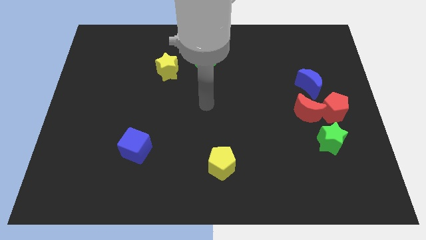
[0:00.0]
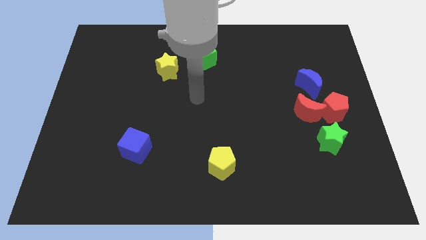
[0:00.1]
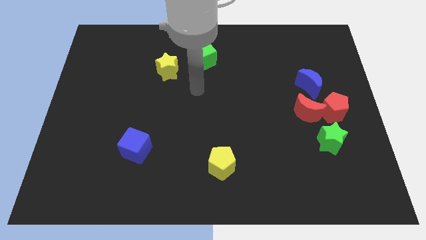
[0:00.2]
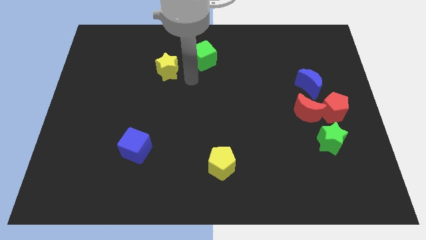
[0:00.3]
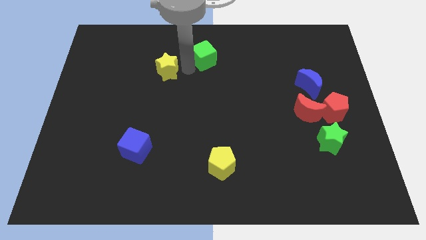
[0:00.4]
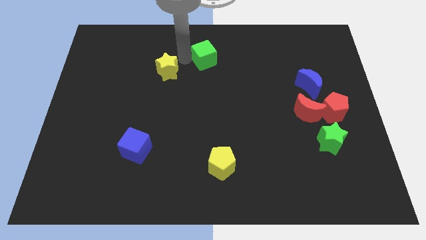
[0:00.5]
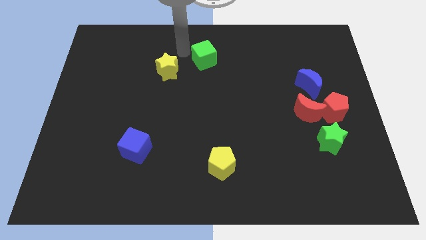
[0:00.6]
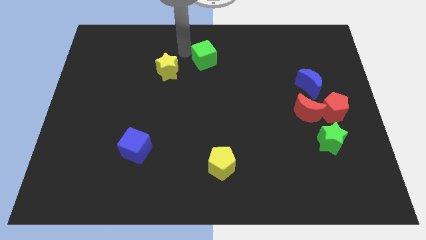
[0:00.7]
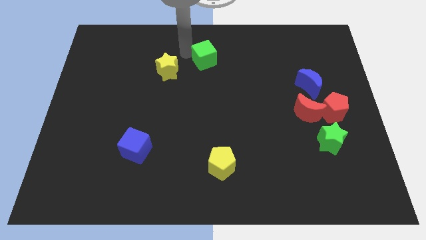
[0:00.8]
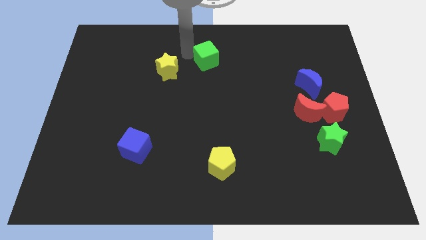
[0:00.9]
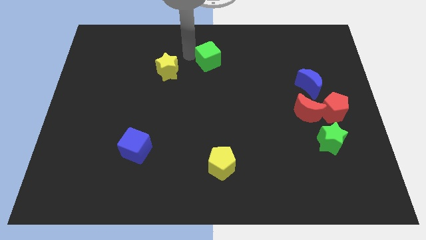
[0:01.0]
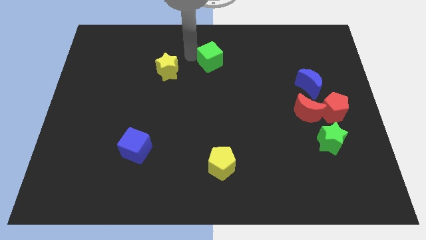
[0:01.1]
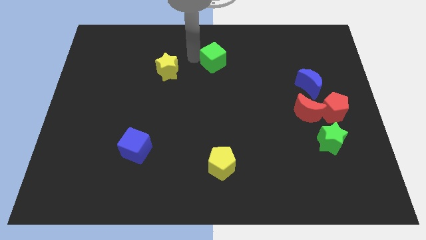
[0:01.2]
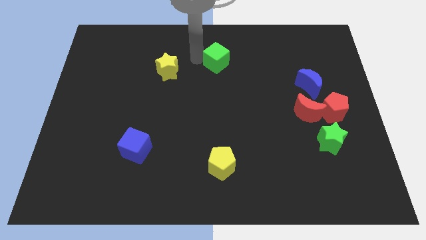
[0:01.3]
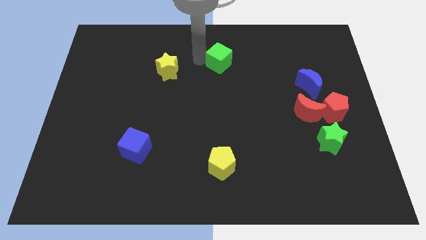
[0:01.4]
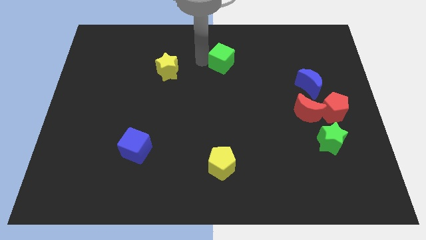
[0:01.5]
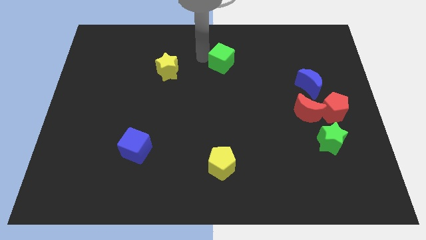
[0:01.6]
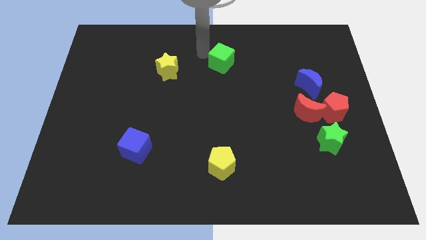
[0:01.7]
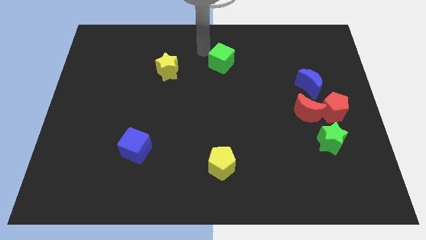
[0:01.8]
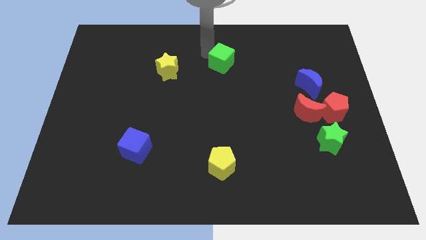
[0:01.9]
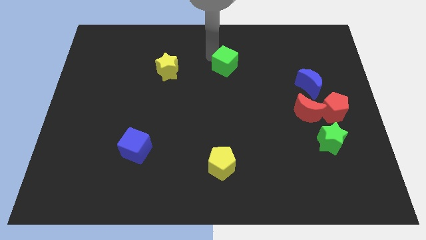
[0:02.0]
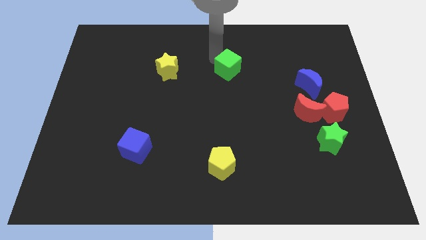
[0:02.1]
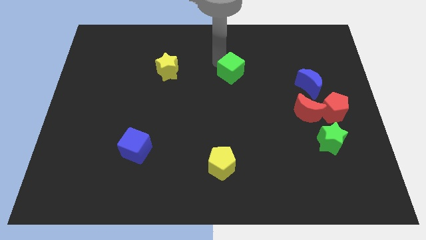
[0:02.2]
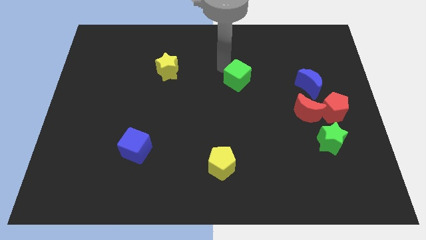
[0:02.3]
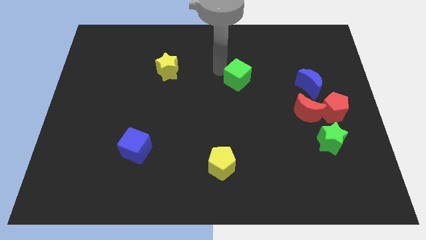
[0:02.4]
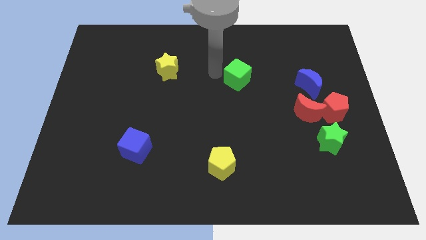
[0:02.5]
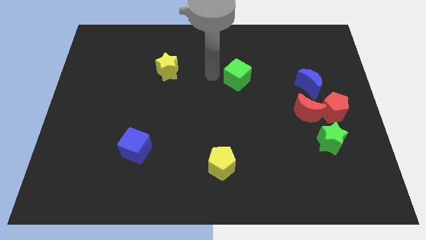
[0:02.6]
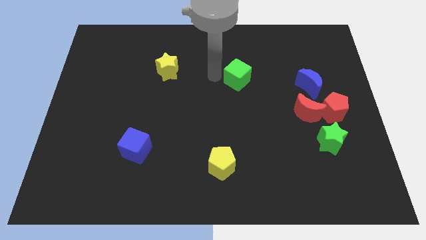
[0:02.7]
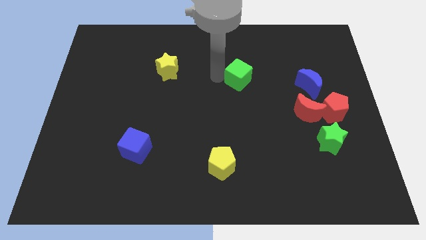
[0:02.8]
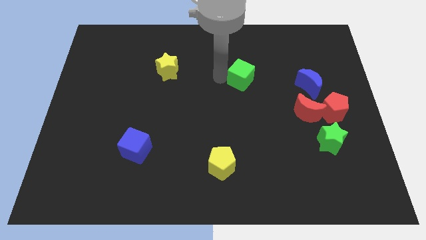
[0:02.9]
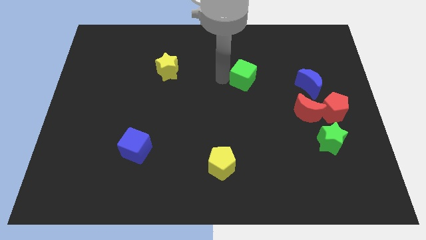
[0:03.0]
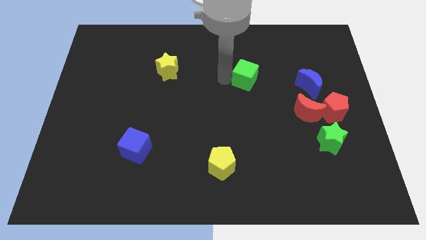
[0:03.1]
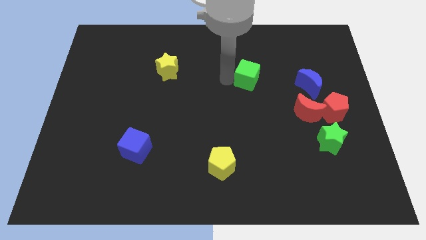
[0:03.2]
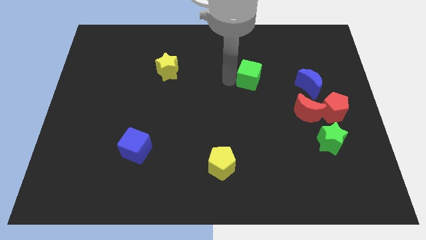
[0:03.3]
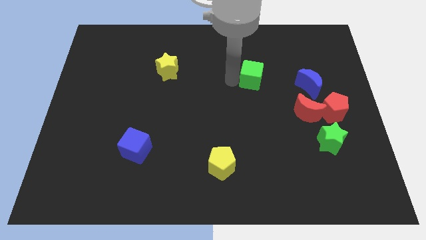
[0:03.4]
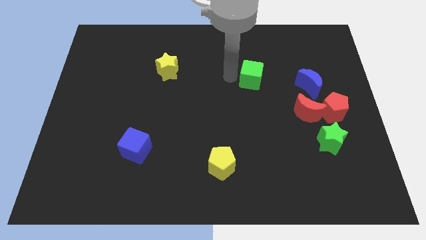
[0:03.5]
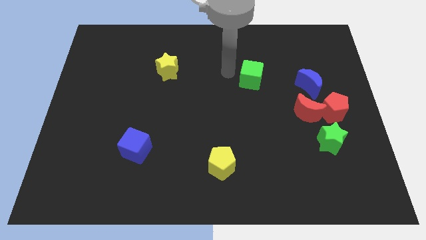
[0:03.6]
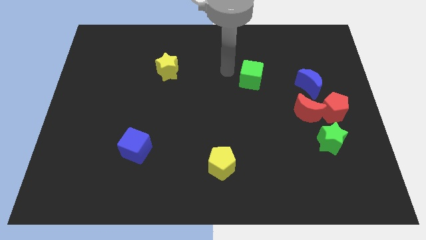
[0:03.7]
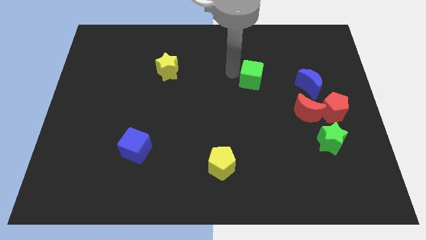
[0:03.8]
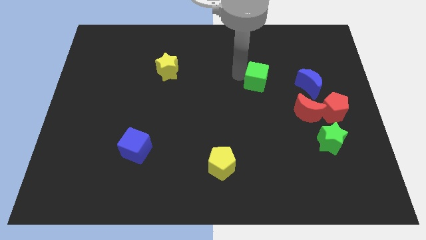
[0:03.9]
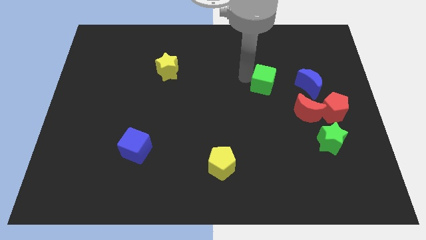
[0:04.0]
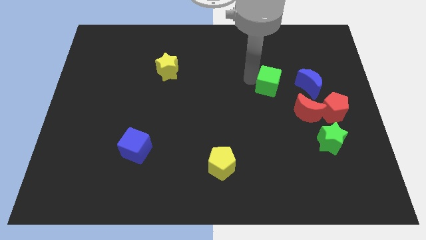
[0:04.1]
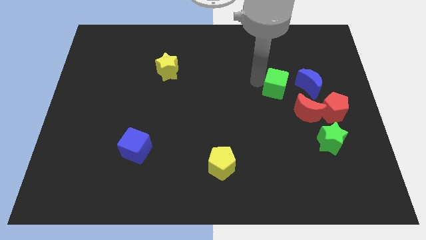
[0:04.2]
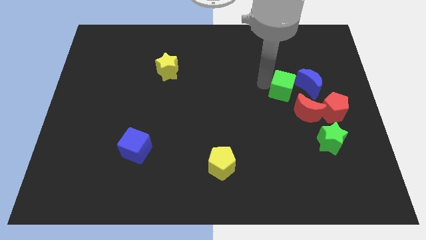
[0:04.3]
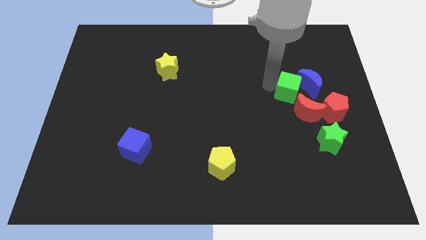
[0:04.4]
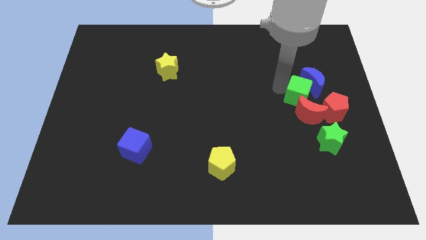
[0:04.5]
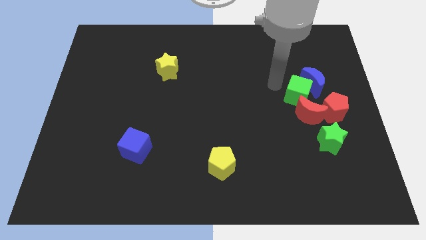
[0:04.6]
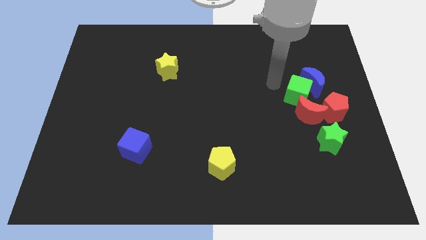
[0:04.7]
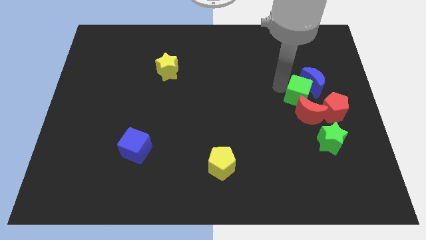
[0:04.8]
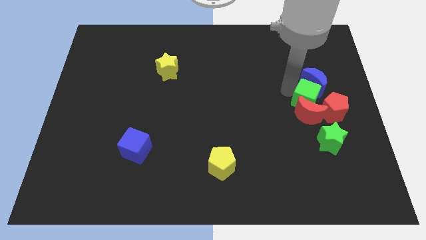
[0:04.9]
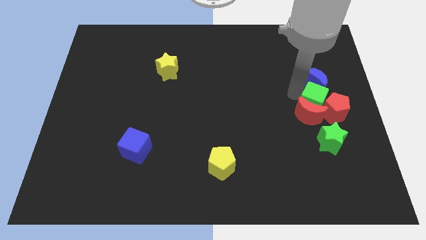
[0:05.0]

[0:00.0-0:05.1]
push the green cube to the red pentagon

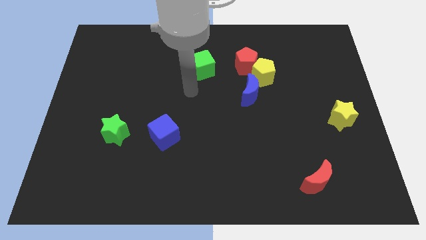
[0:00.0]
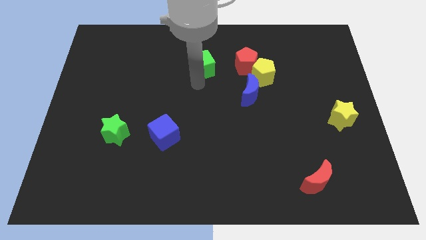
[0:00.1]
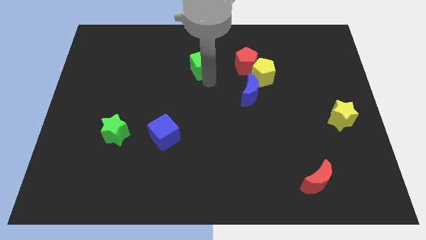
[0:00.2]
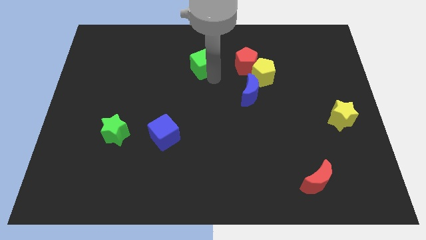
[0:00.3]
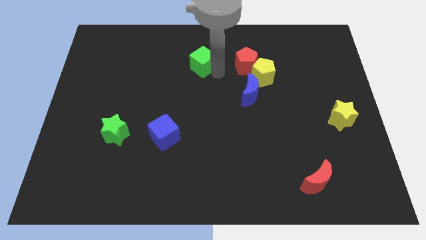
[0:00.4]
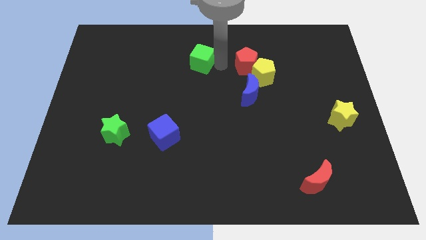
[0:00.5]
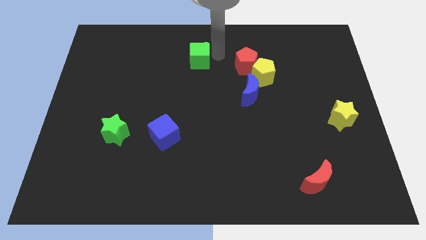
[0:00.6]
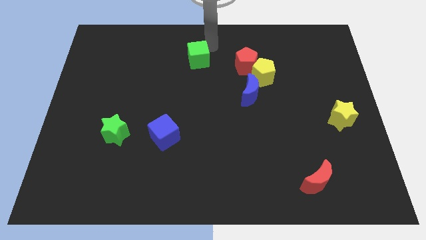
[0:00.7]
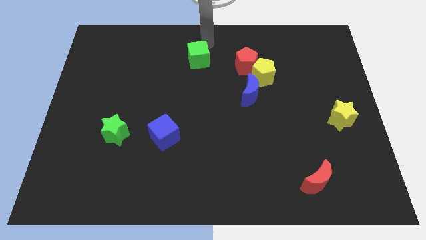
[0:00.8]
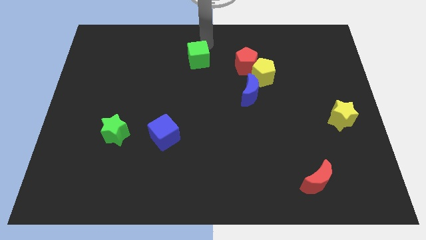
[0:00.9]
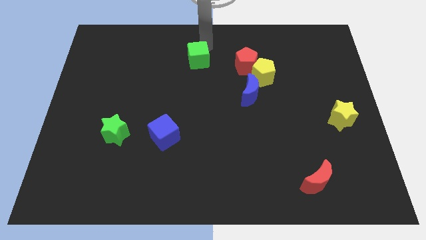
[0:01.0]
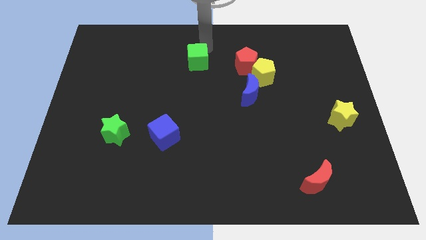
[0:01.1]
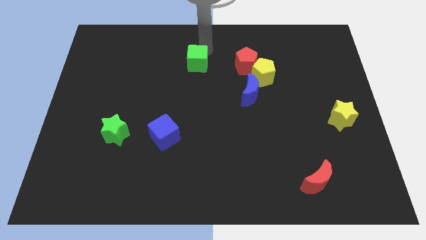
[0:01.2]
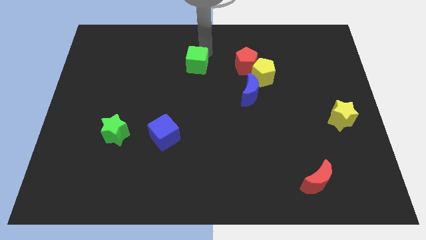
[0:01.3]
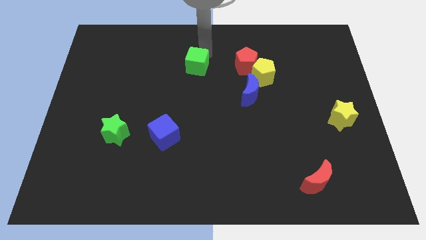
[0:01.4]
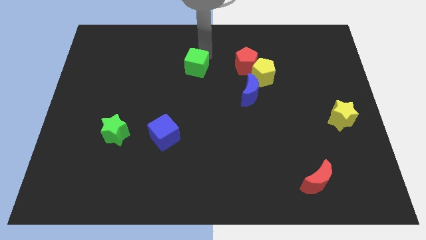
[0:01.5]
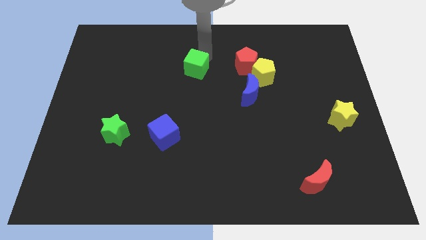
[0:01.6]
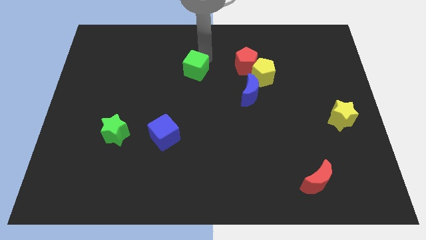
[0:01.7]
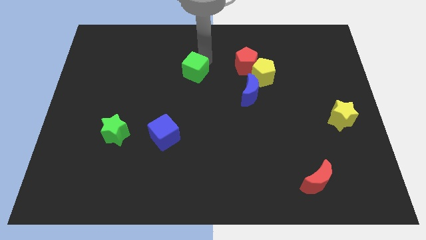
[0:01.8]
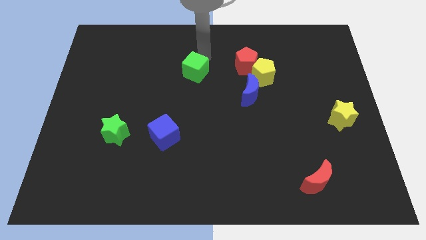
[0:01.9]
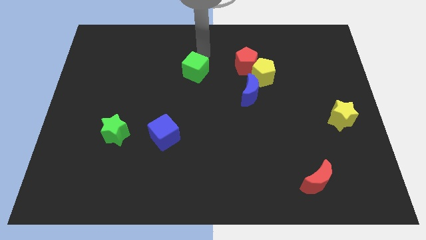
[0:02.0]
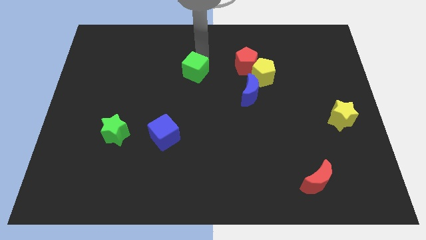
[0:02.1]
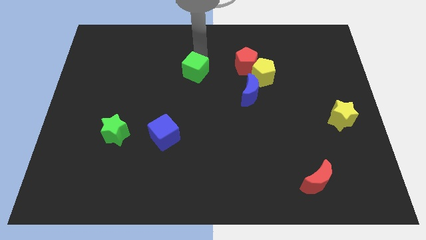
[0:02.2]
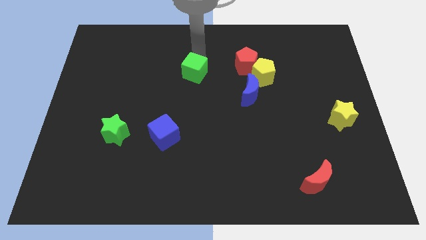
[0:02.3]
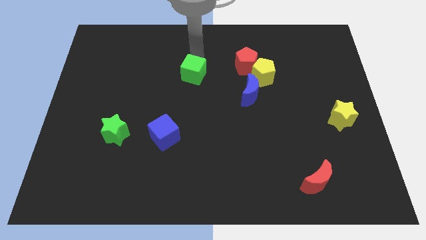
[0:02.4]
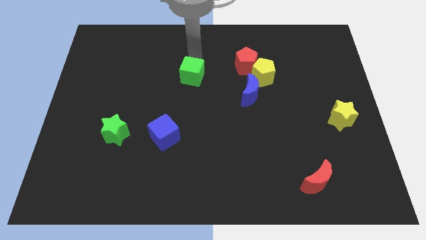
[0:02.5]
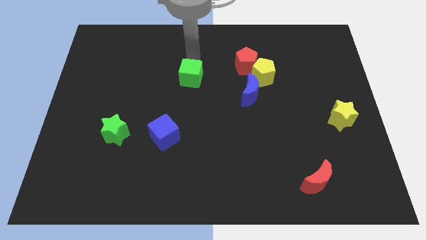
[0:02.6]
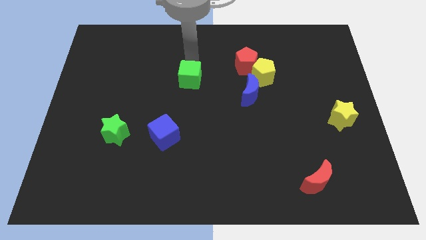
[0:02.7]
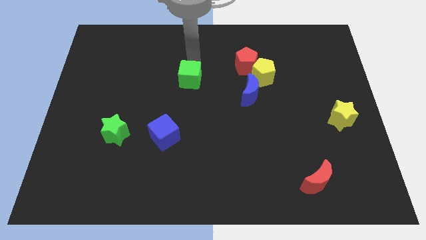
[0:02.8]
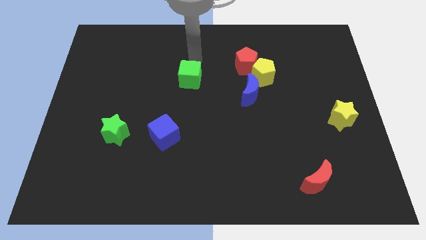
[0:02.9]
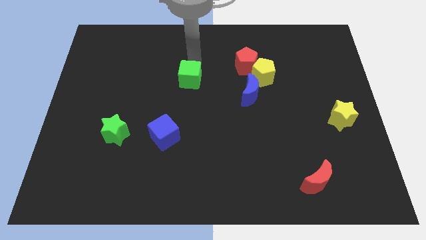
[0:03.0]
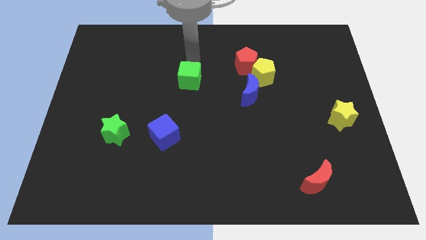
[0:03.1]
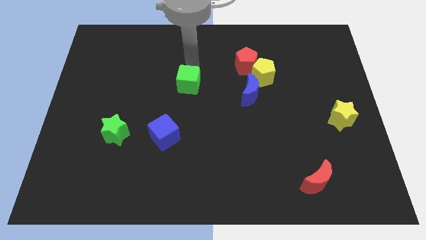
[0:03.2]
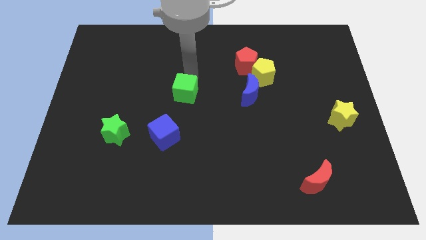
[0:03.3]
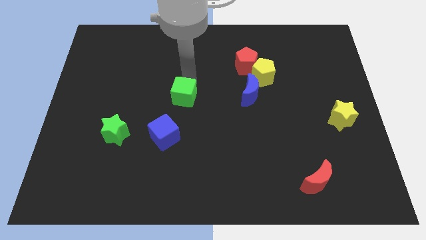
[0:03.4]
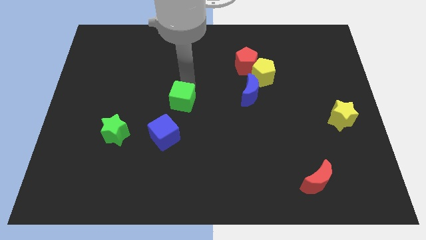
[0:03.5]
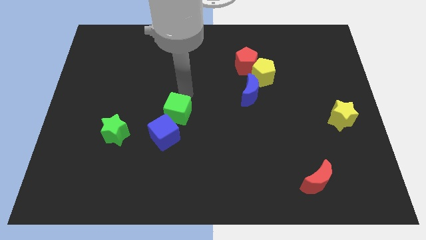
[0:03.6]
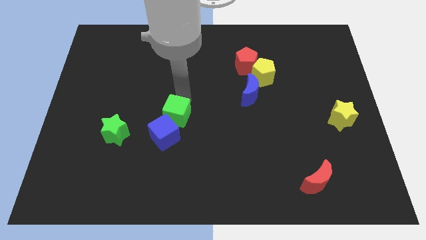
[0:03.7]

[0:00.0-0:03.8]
push the green cube close to the blue cube
